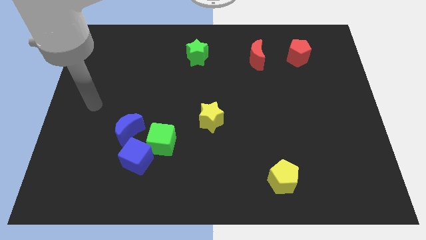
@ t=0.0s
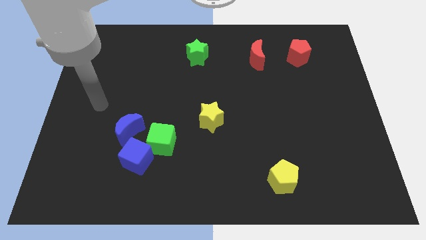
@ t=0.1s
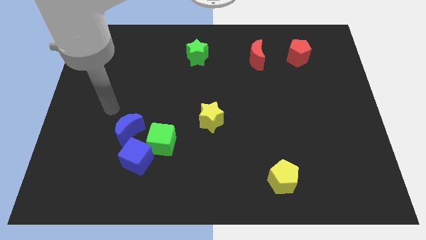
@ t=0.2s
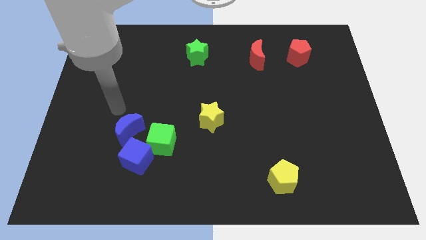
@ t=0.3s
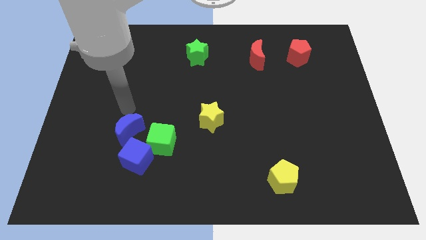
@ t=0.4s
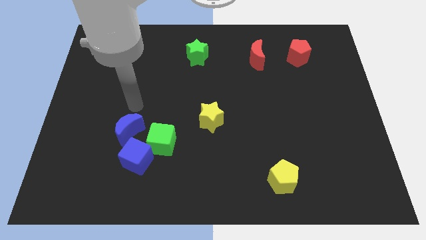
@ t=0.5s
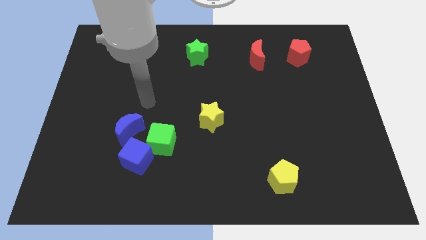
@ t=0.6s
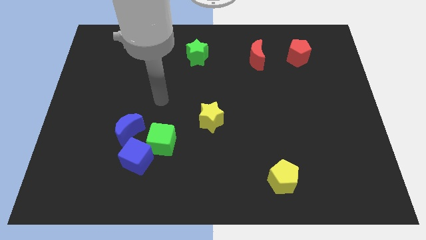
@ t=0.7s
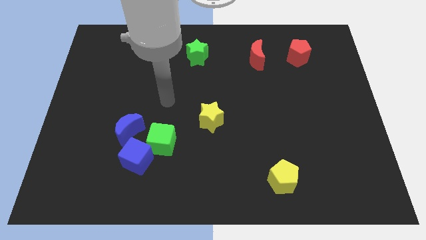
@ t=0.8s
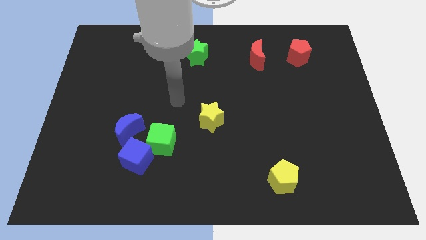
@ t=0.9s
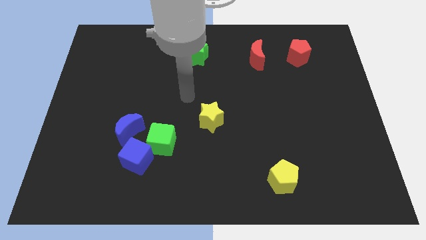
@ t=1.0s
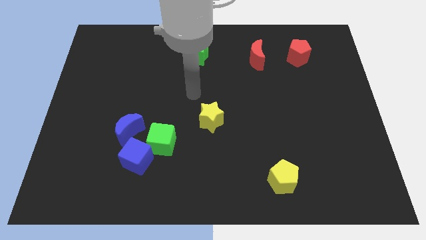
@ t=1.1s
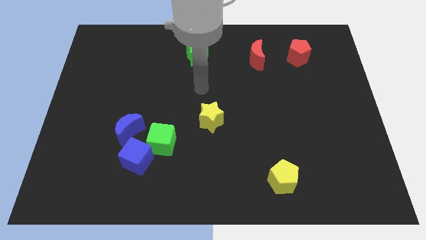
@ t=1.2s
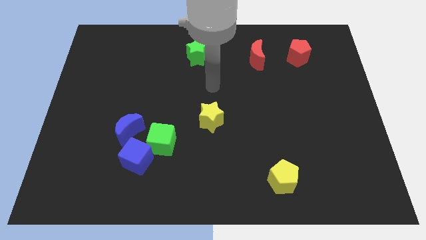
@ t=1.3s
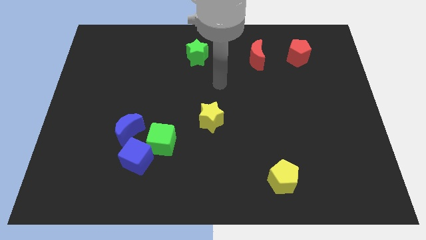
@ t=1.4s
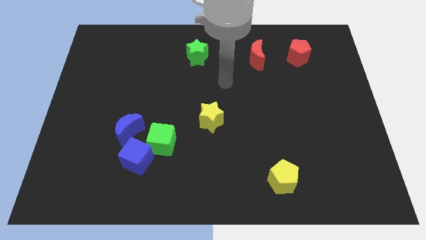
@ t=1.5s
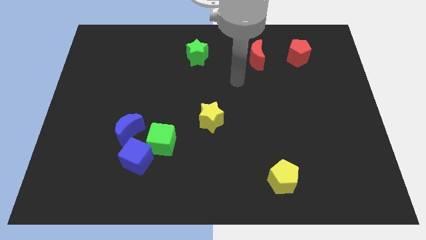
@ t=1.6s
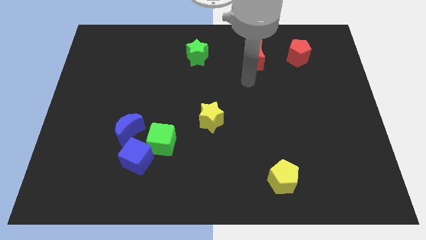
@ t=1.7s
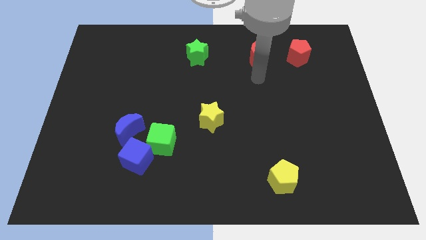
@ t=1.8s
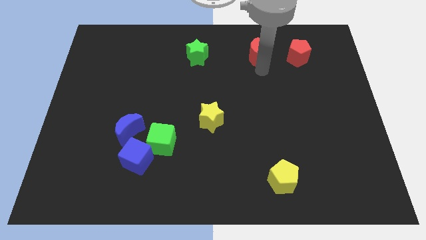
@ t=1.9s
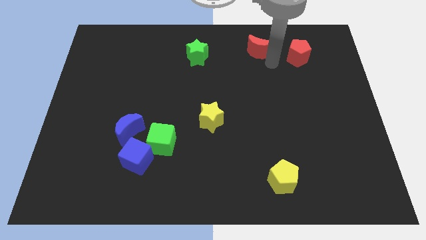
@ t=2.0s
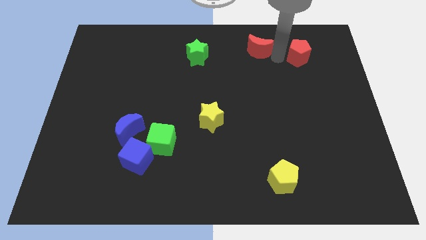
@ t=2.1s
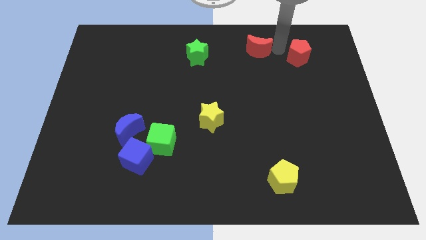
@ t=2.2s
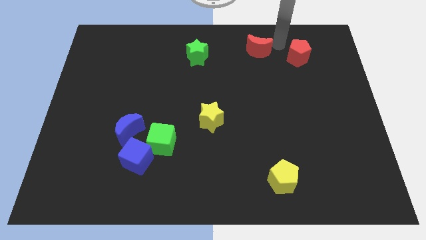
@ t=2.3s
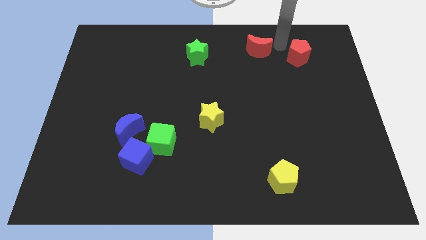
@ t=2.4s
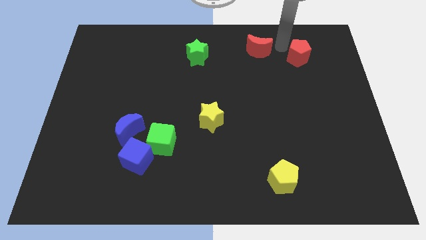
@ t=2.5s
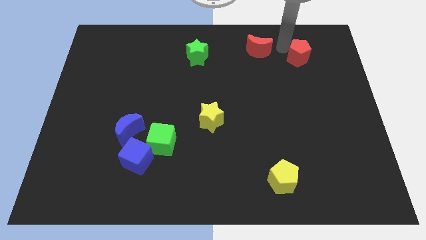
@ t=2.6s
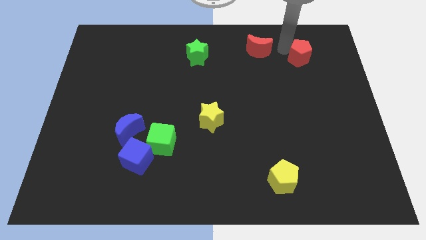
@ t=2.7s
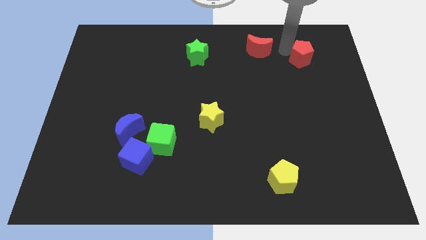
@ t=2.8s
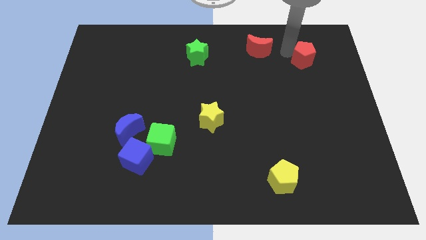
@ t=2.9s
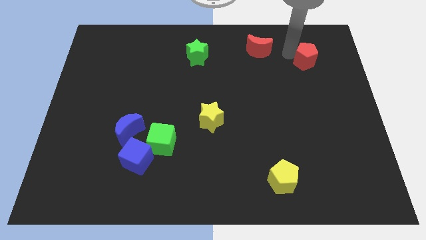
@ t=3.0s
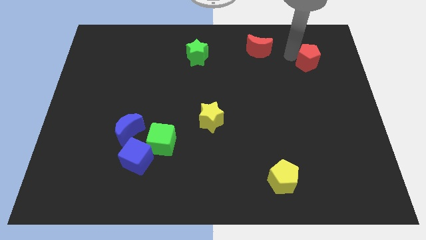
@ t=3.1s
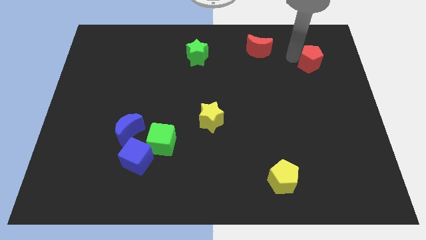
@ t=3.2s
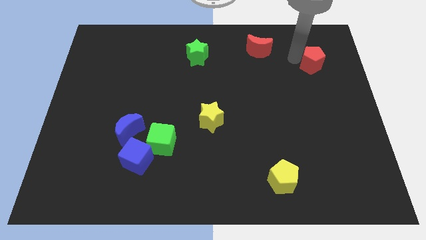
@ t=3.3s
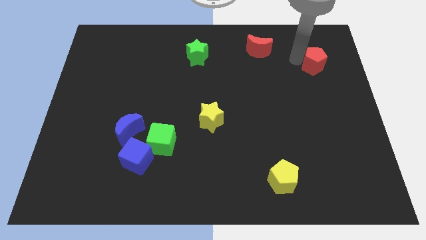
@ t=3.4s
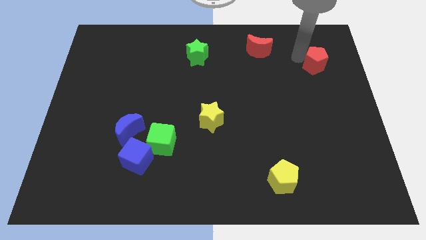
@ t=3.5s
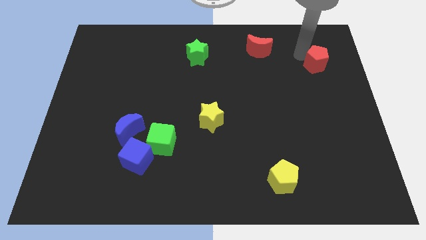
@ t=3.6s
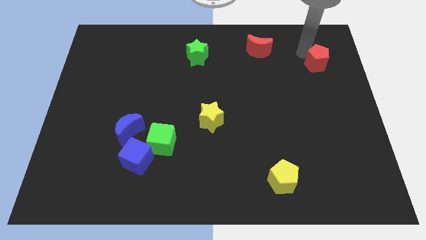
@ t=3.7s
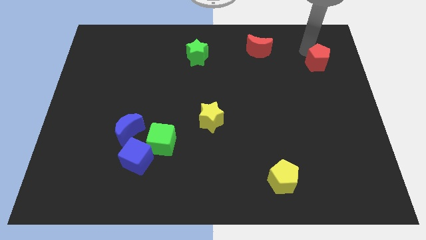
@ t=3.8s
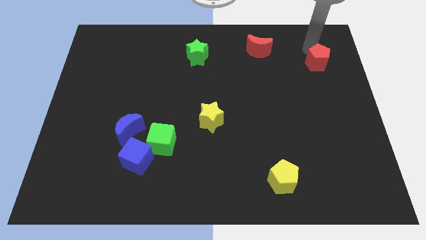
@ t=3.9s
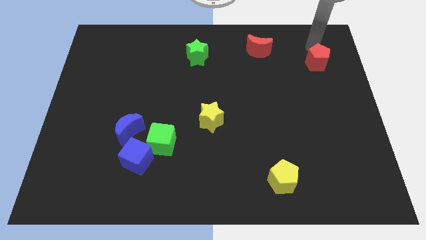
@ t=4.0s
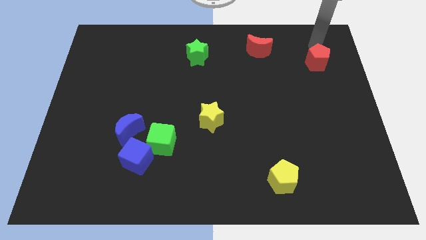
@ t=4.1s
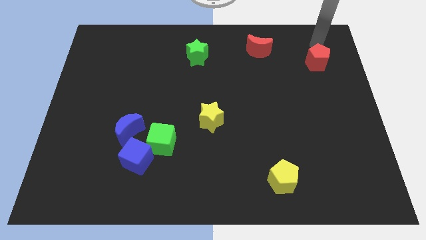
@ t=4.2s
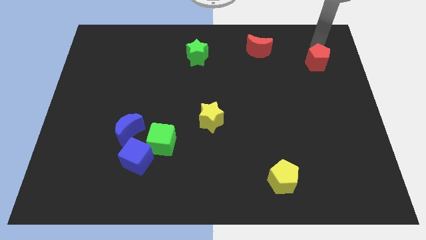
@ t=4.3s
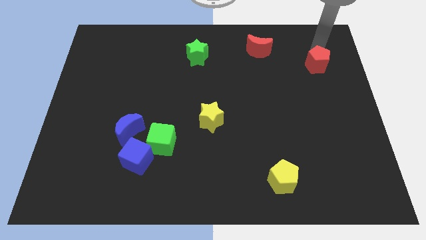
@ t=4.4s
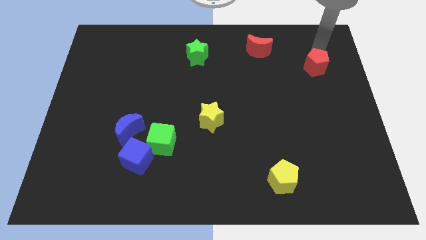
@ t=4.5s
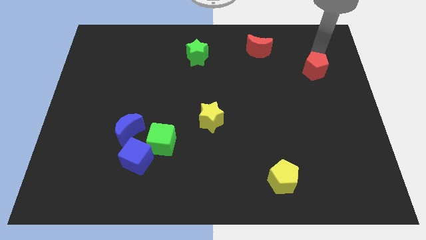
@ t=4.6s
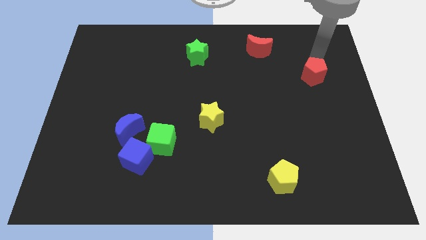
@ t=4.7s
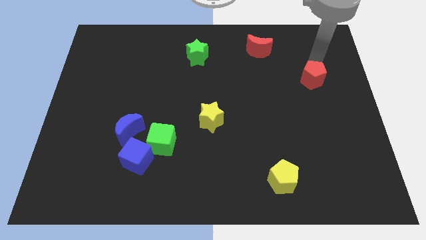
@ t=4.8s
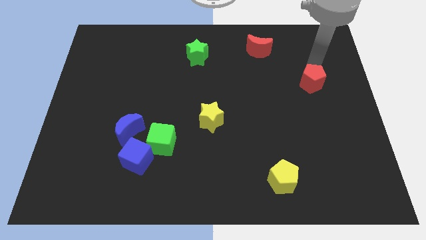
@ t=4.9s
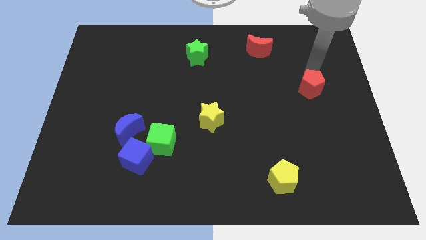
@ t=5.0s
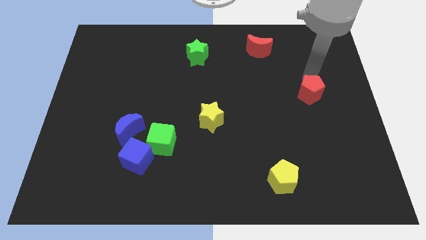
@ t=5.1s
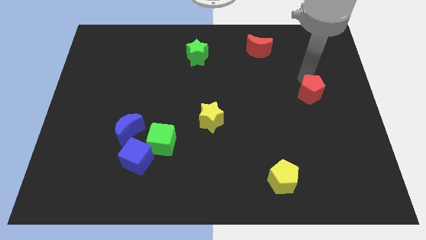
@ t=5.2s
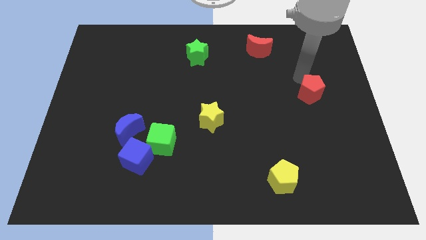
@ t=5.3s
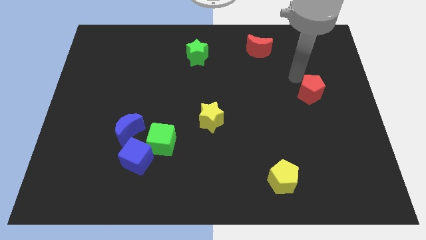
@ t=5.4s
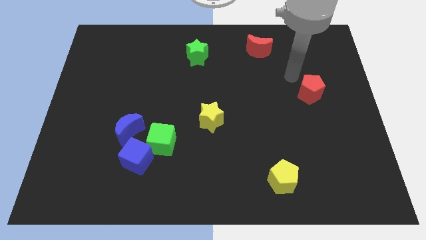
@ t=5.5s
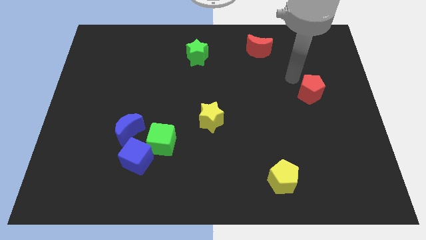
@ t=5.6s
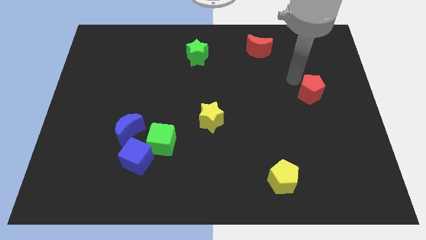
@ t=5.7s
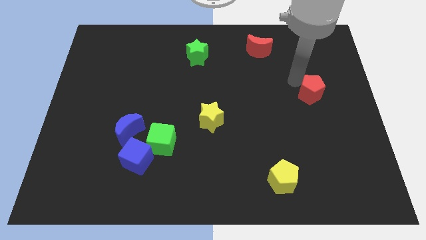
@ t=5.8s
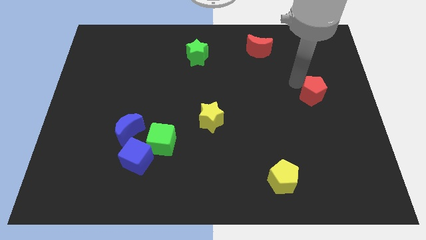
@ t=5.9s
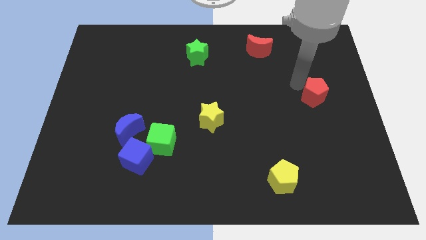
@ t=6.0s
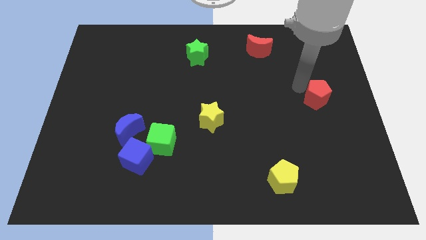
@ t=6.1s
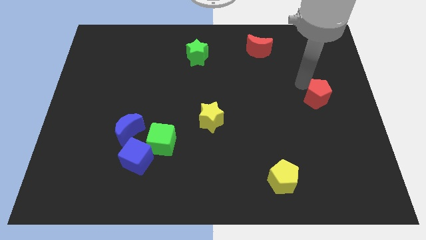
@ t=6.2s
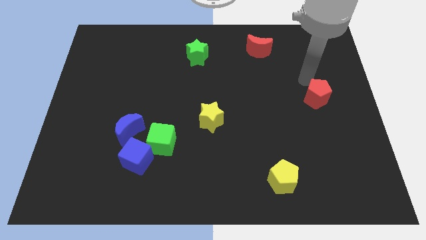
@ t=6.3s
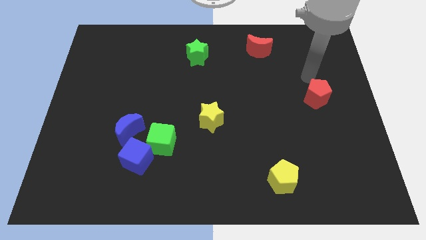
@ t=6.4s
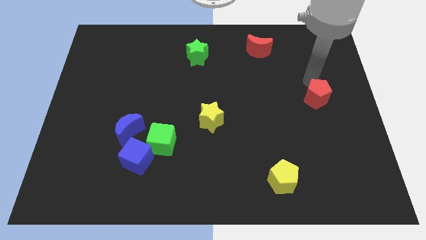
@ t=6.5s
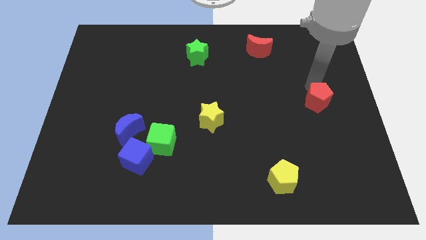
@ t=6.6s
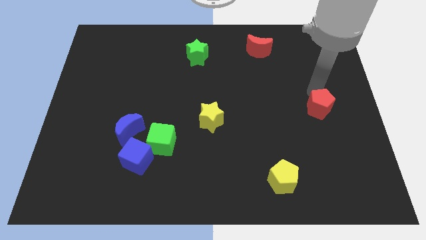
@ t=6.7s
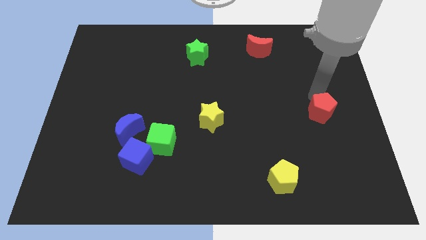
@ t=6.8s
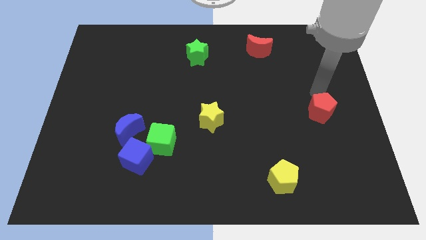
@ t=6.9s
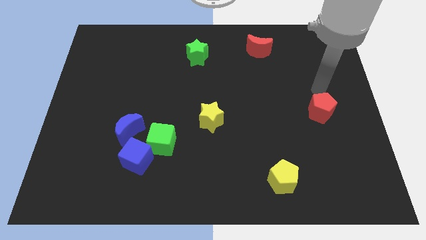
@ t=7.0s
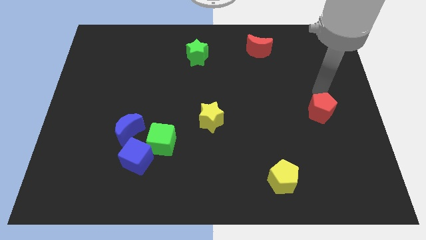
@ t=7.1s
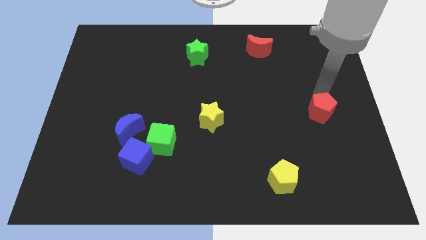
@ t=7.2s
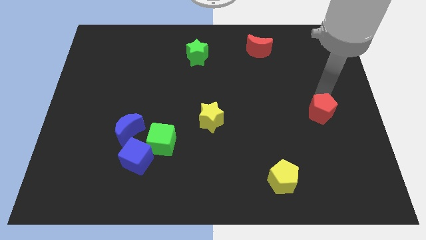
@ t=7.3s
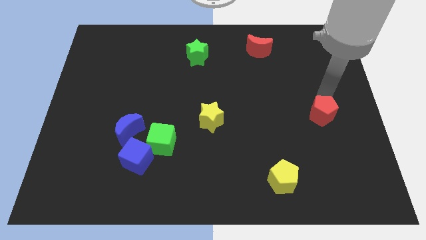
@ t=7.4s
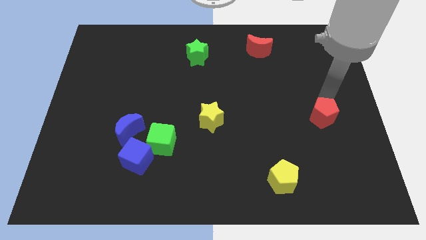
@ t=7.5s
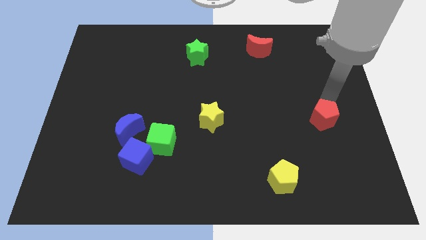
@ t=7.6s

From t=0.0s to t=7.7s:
push the red pentagon downwards

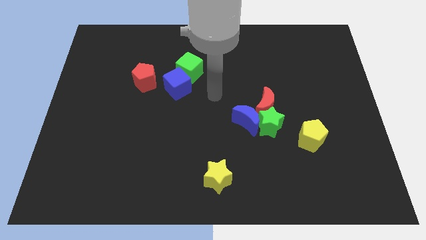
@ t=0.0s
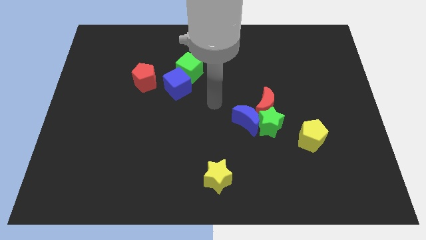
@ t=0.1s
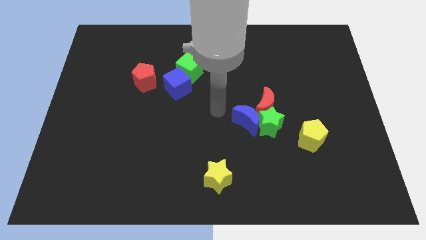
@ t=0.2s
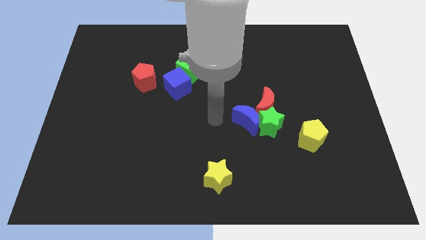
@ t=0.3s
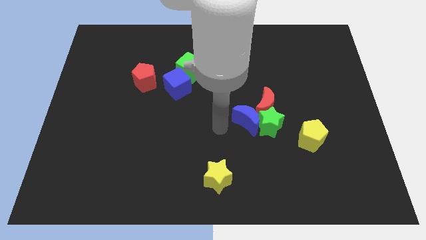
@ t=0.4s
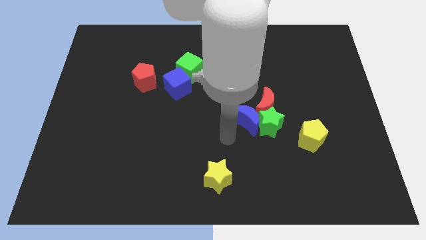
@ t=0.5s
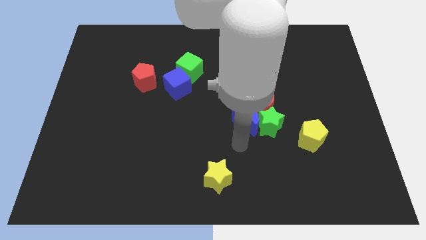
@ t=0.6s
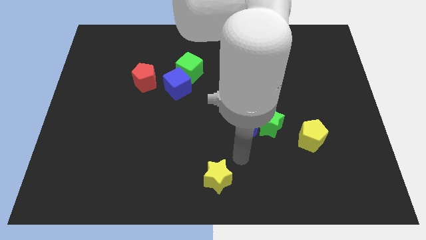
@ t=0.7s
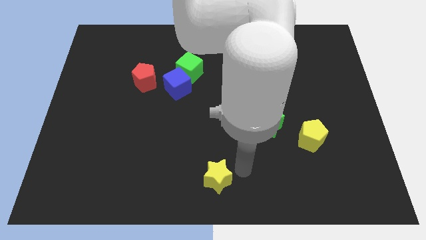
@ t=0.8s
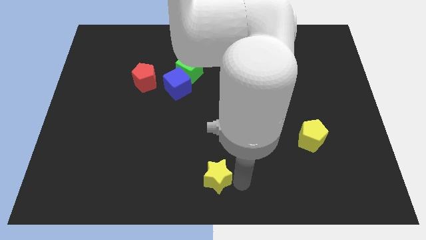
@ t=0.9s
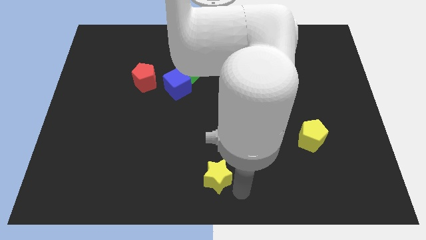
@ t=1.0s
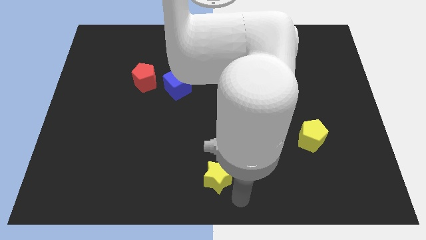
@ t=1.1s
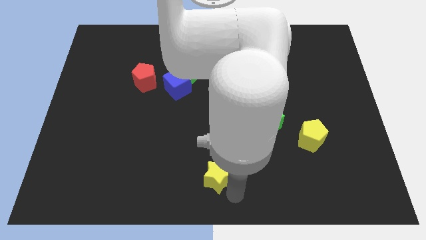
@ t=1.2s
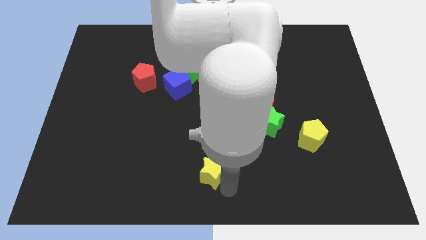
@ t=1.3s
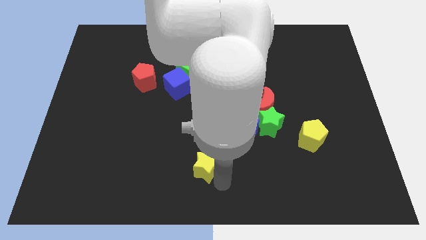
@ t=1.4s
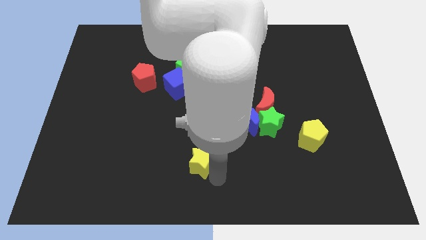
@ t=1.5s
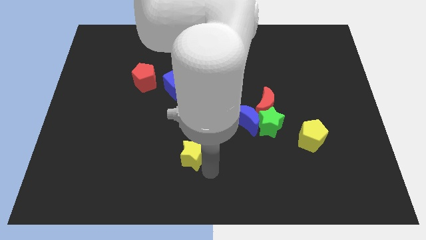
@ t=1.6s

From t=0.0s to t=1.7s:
slightly slide the yellow star up and left diagonally
